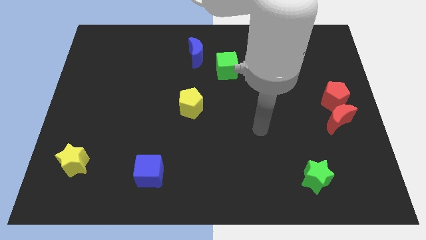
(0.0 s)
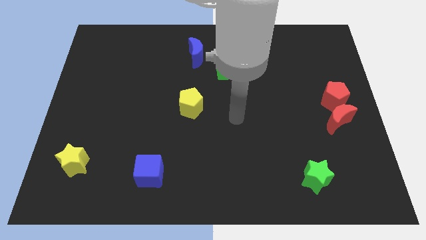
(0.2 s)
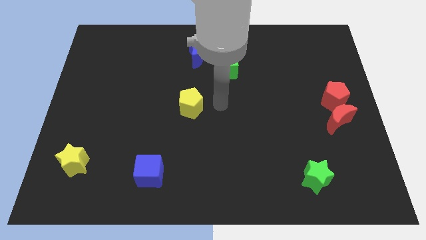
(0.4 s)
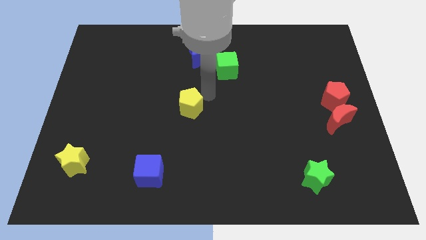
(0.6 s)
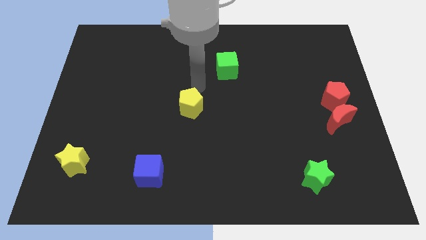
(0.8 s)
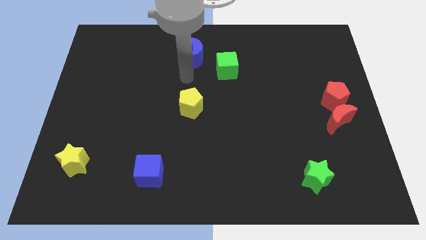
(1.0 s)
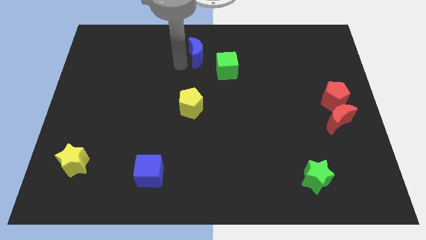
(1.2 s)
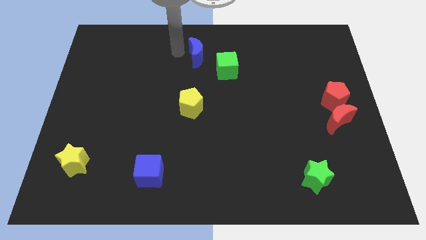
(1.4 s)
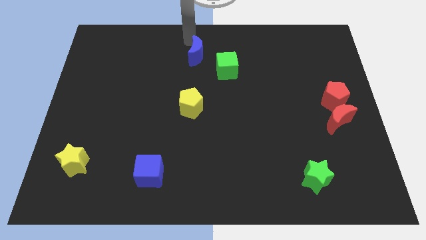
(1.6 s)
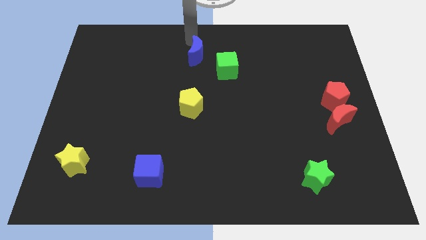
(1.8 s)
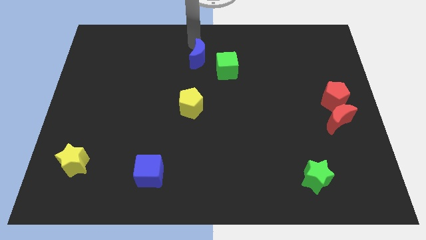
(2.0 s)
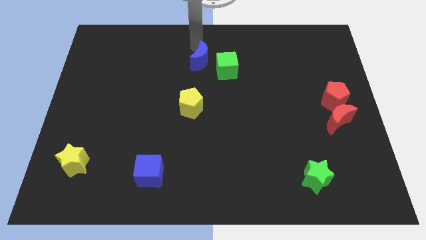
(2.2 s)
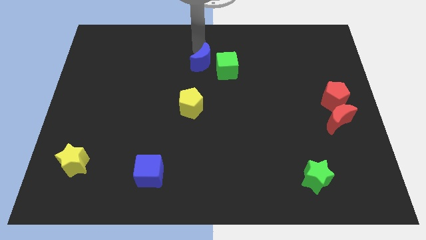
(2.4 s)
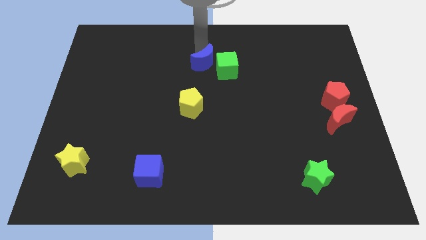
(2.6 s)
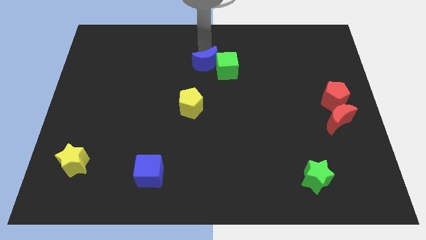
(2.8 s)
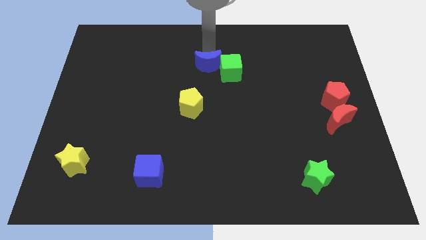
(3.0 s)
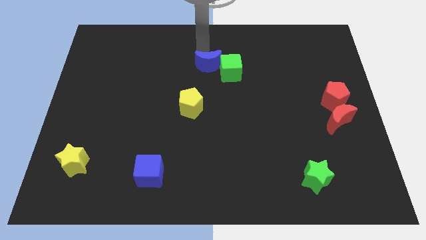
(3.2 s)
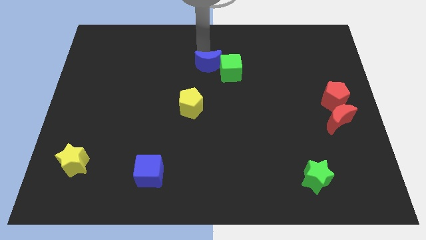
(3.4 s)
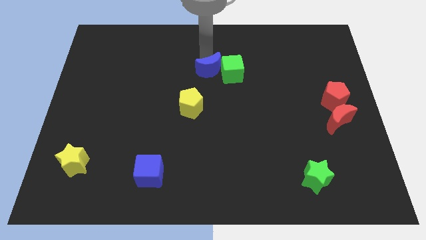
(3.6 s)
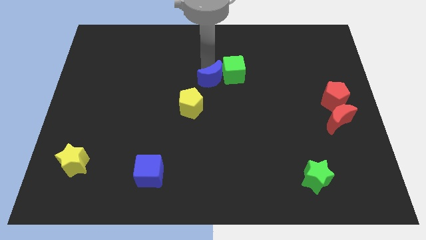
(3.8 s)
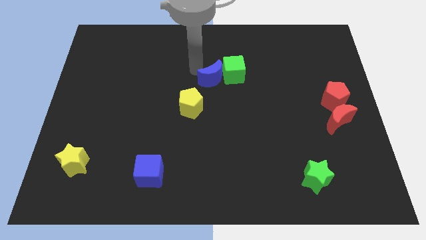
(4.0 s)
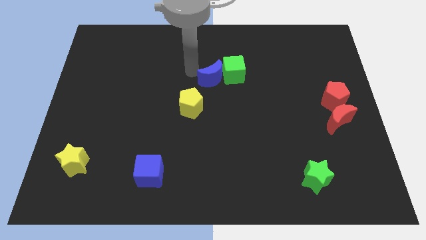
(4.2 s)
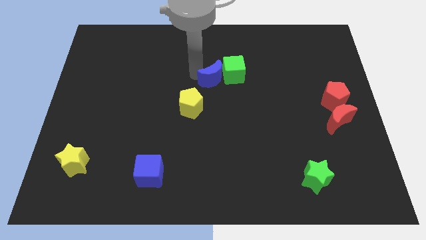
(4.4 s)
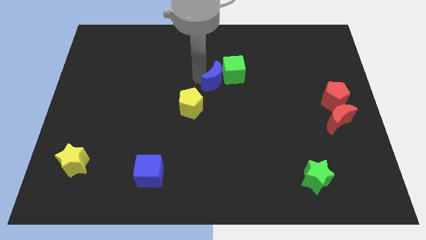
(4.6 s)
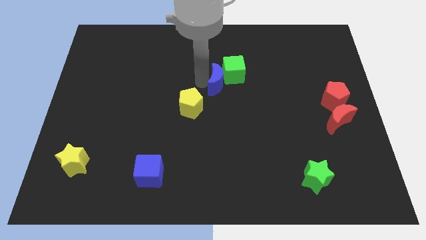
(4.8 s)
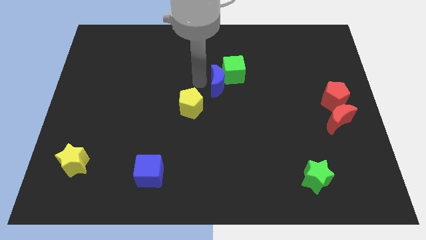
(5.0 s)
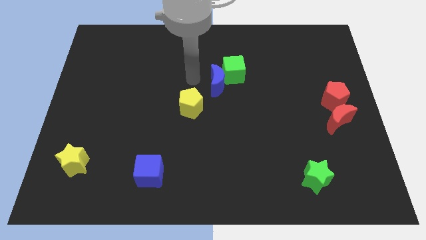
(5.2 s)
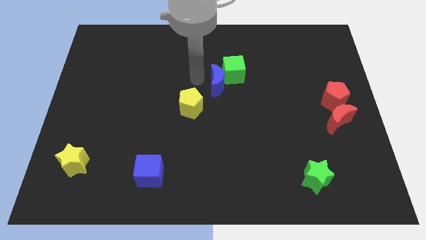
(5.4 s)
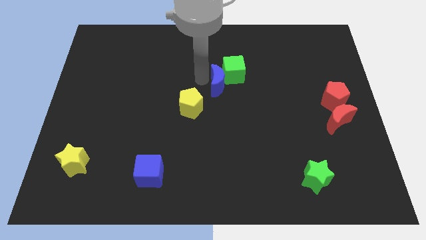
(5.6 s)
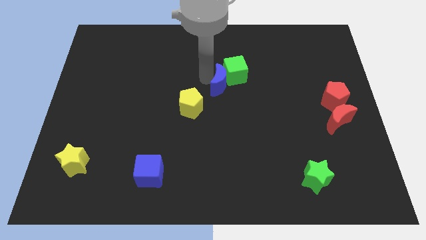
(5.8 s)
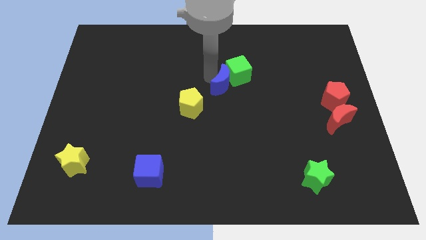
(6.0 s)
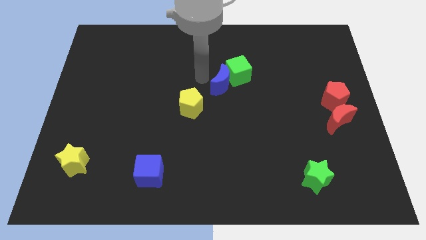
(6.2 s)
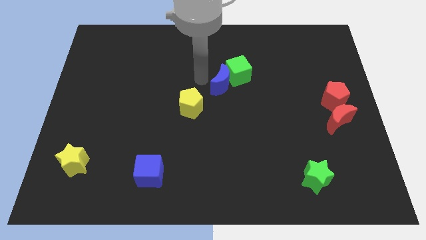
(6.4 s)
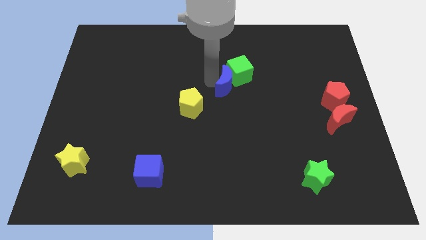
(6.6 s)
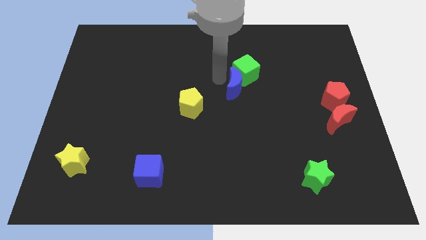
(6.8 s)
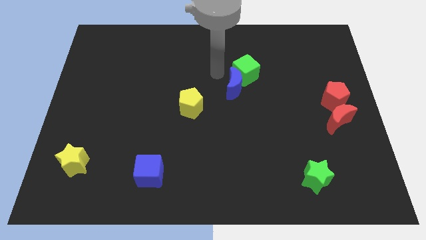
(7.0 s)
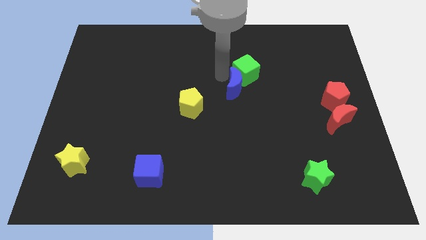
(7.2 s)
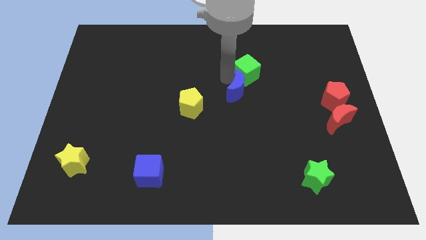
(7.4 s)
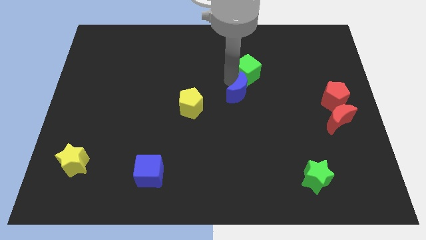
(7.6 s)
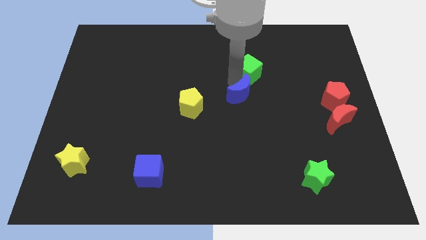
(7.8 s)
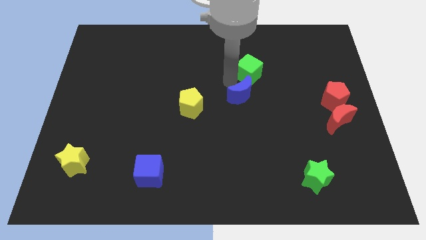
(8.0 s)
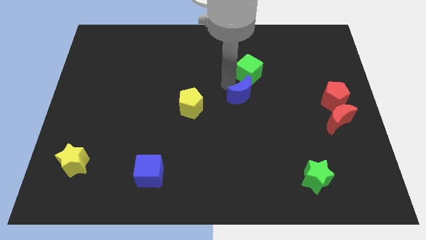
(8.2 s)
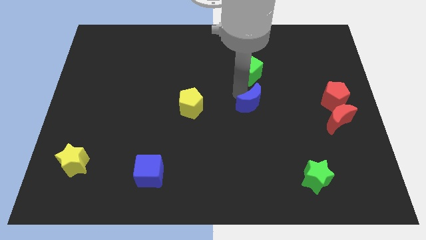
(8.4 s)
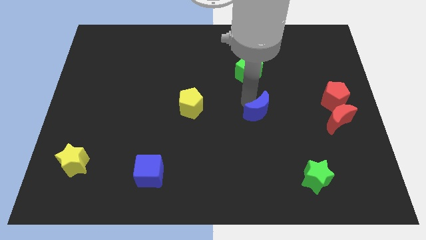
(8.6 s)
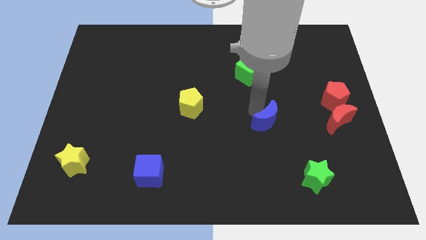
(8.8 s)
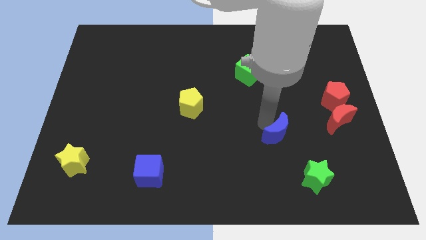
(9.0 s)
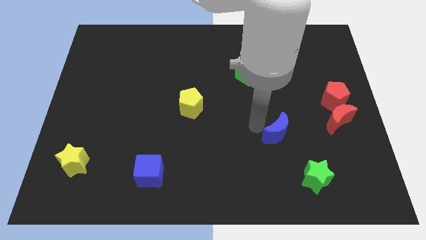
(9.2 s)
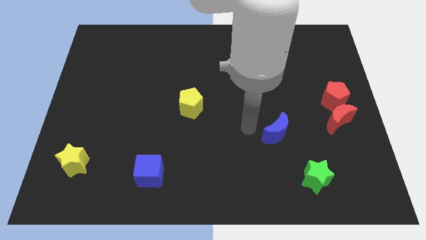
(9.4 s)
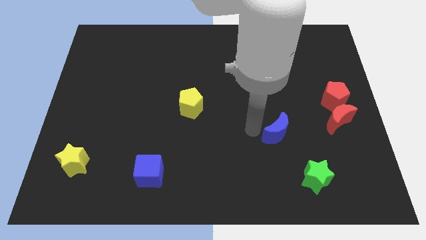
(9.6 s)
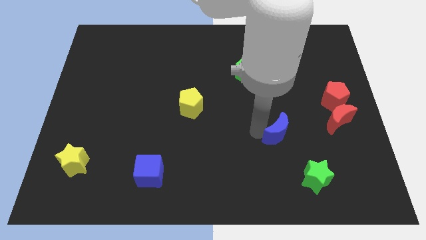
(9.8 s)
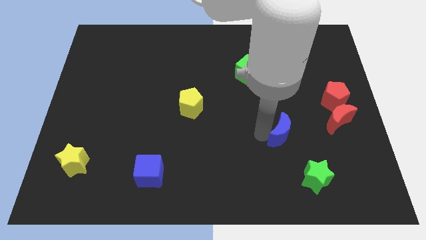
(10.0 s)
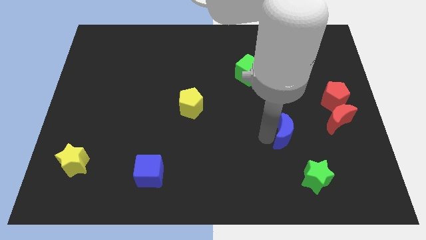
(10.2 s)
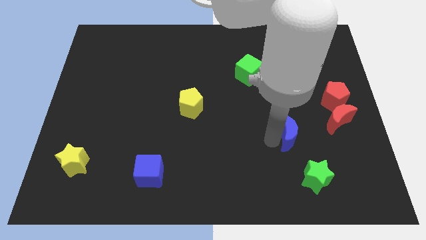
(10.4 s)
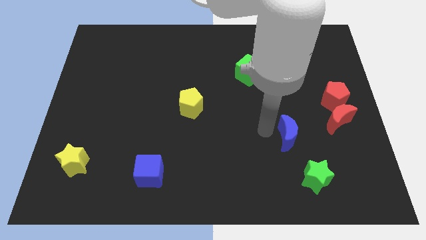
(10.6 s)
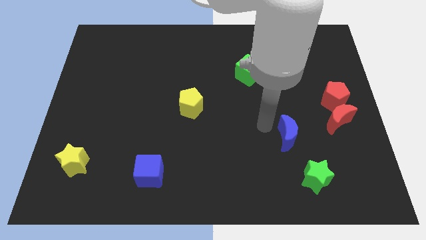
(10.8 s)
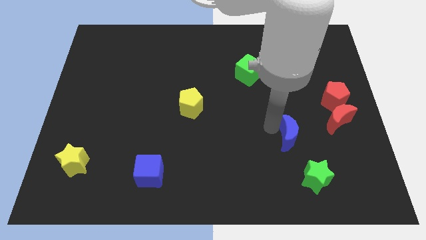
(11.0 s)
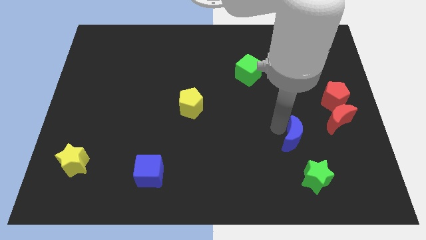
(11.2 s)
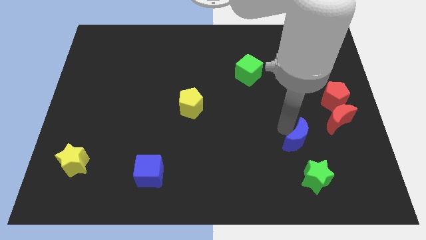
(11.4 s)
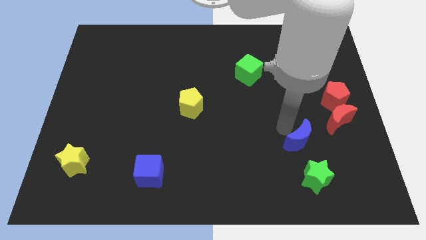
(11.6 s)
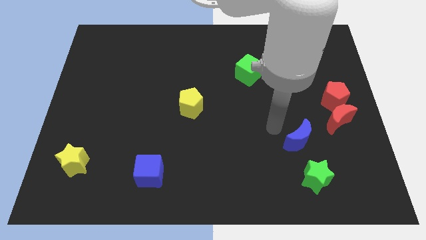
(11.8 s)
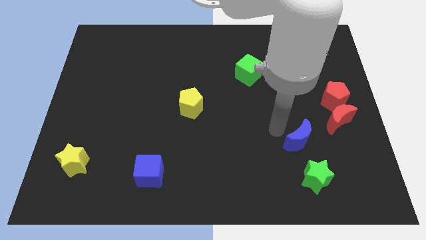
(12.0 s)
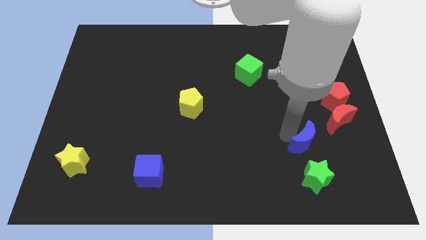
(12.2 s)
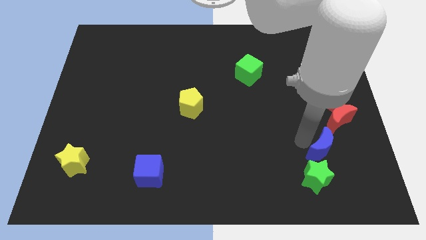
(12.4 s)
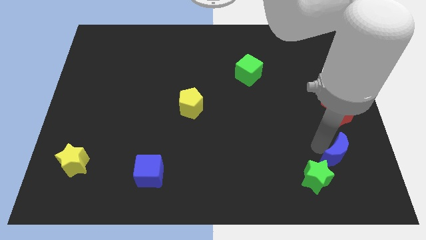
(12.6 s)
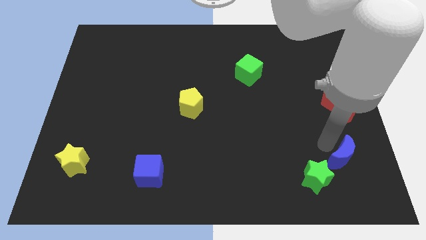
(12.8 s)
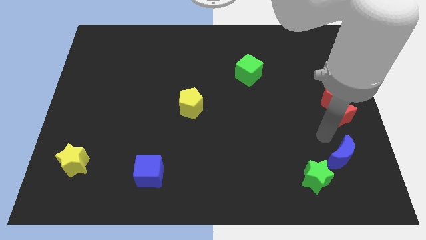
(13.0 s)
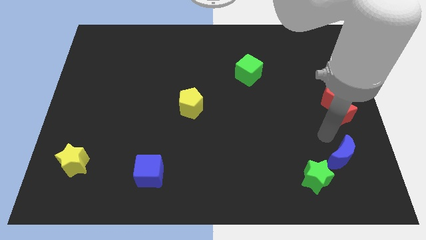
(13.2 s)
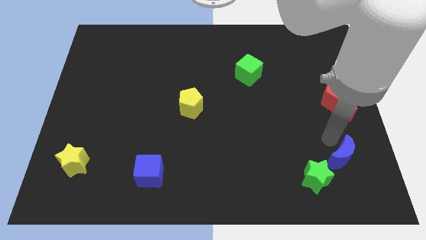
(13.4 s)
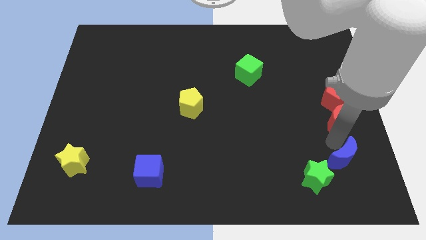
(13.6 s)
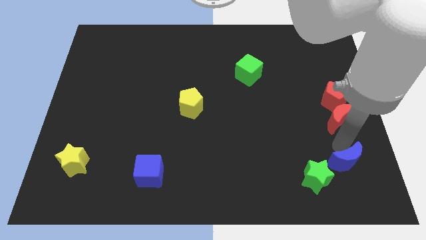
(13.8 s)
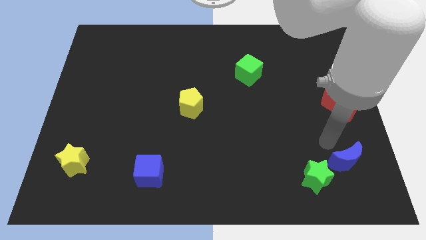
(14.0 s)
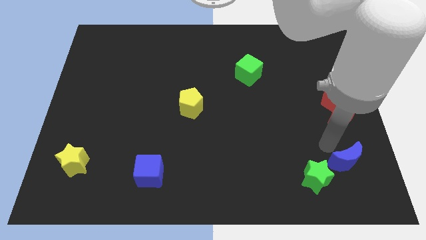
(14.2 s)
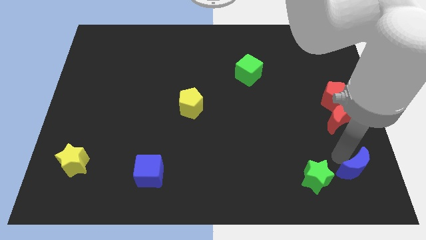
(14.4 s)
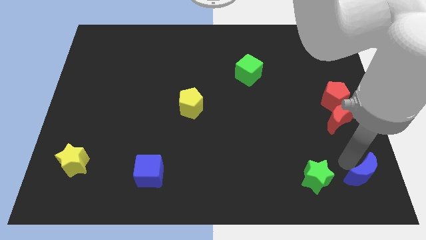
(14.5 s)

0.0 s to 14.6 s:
slide the blue moon to the lower right corner
